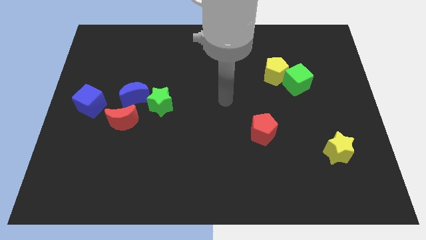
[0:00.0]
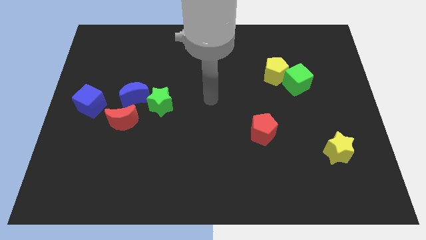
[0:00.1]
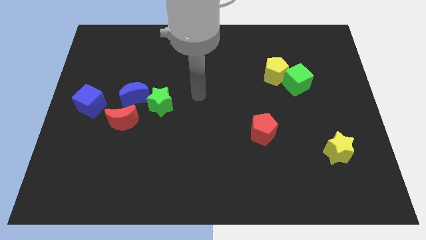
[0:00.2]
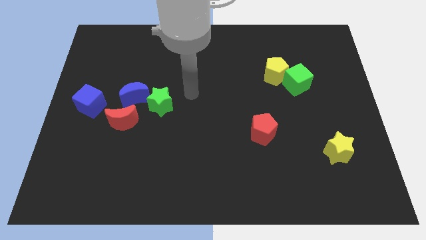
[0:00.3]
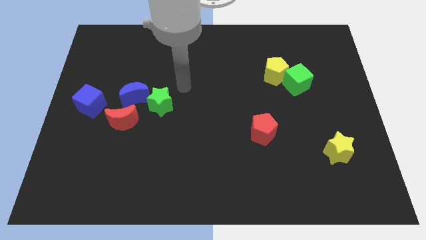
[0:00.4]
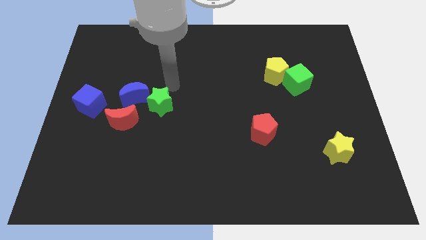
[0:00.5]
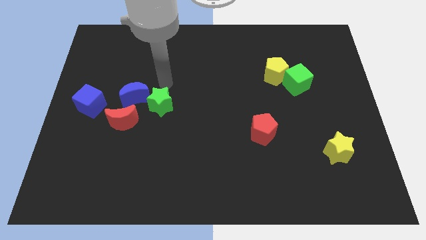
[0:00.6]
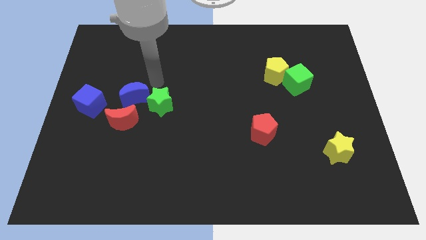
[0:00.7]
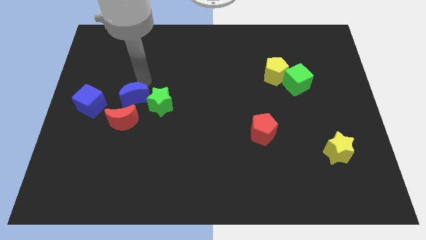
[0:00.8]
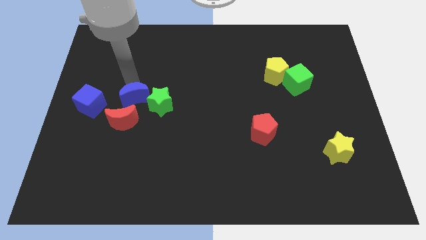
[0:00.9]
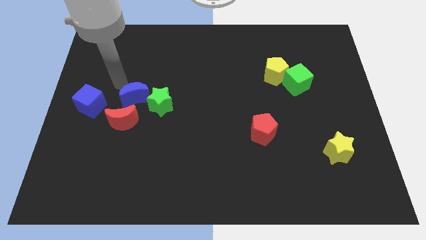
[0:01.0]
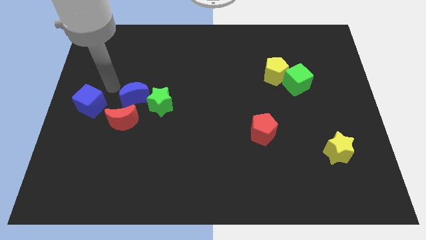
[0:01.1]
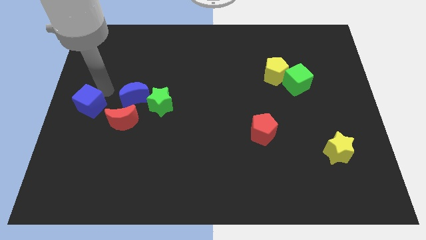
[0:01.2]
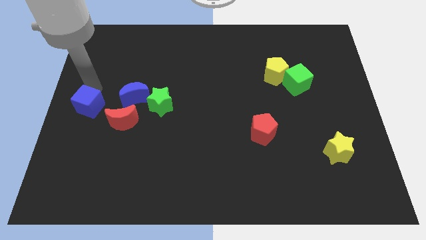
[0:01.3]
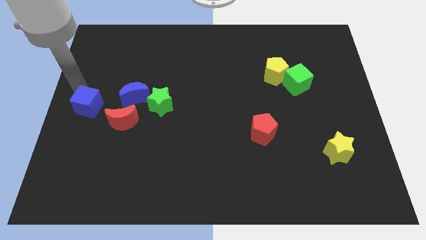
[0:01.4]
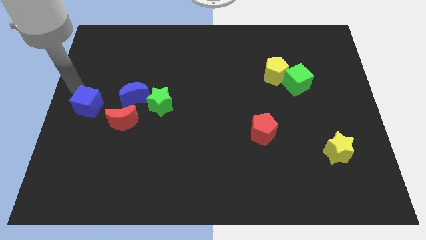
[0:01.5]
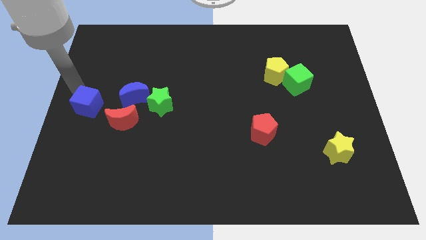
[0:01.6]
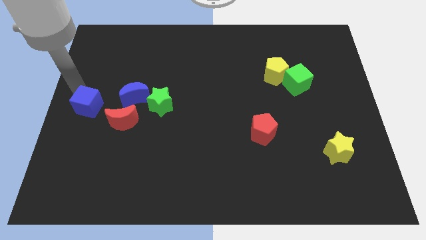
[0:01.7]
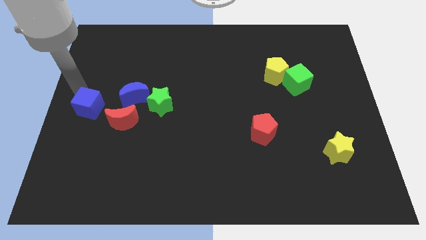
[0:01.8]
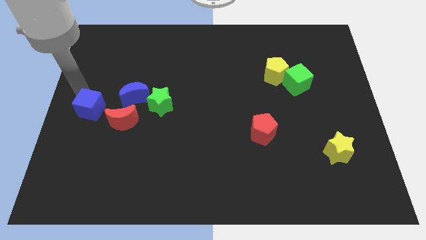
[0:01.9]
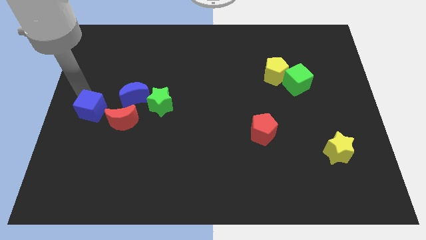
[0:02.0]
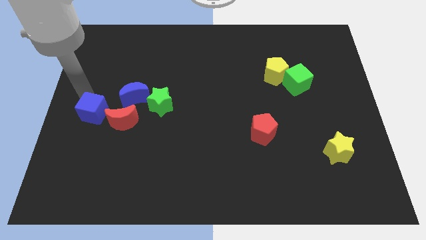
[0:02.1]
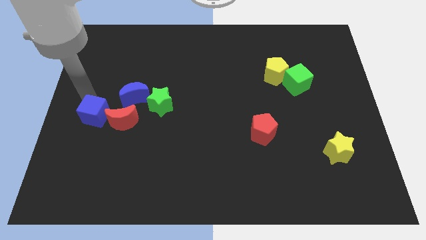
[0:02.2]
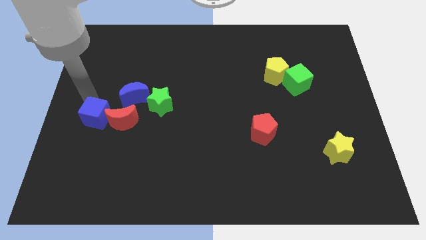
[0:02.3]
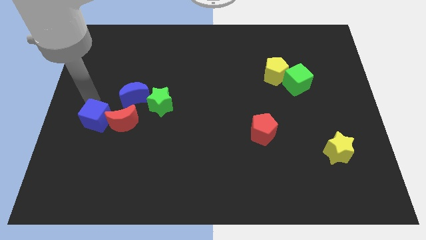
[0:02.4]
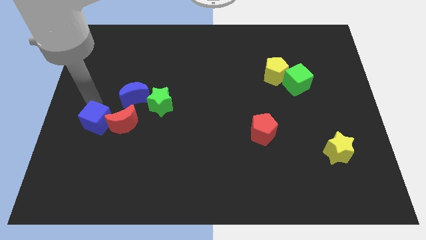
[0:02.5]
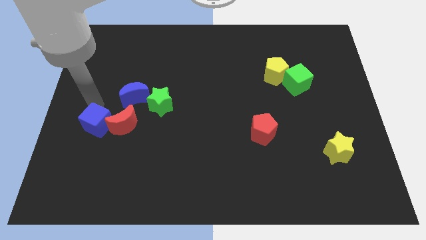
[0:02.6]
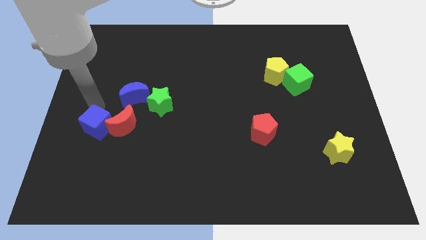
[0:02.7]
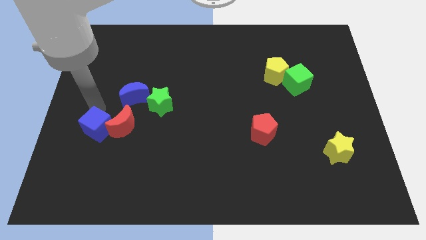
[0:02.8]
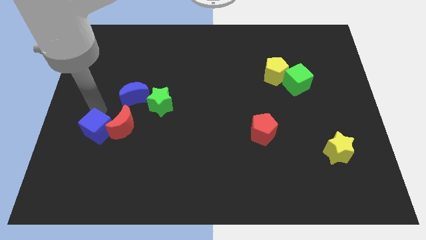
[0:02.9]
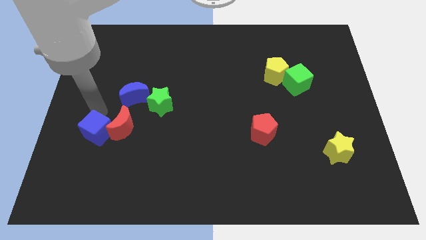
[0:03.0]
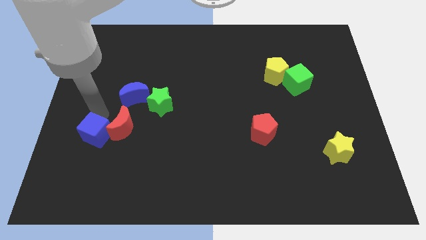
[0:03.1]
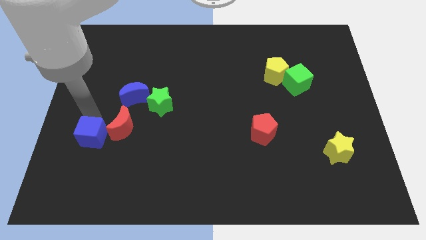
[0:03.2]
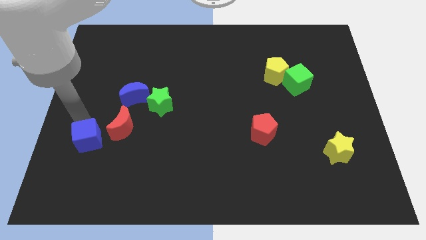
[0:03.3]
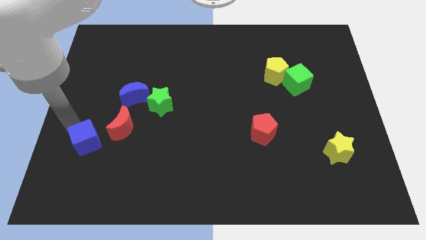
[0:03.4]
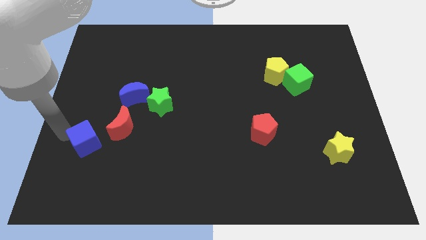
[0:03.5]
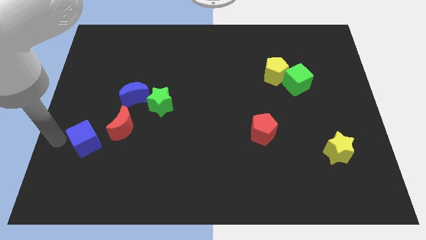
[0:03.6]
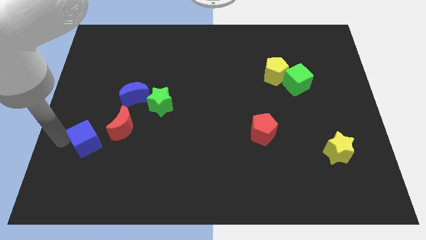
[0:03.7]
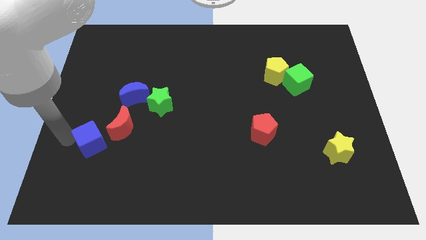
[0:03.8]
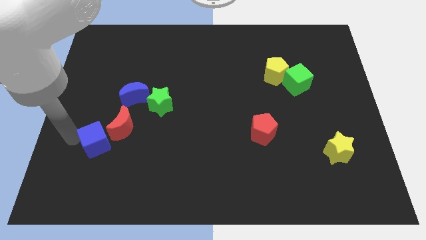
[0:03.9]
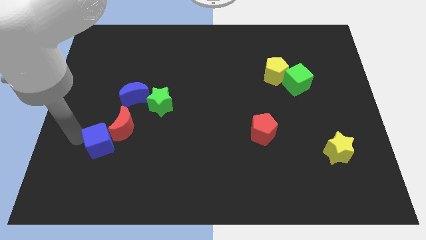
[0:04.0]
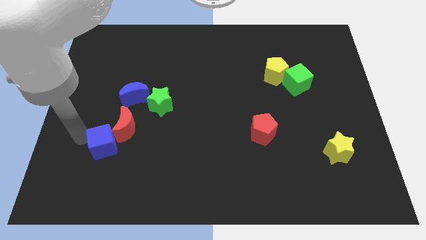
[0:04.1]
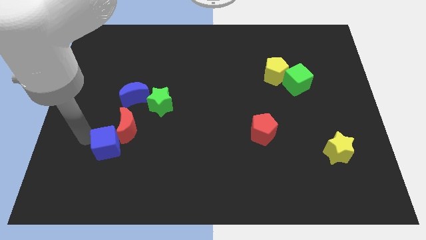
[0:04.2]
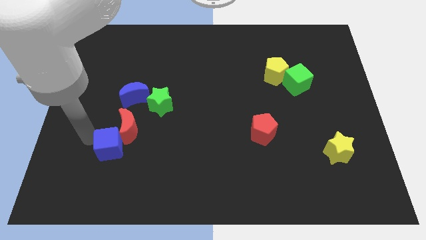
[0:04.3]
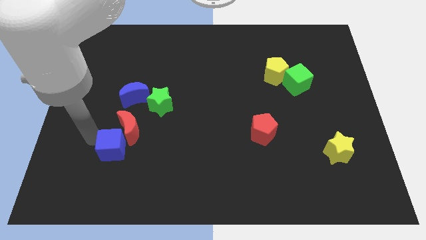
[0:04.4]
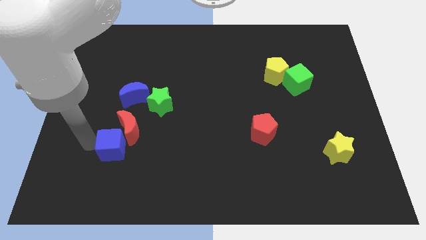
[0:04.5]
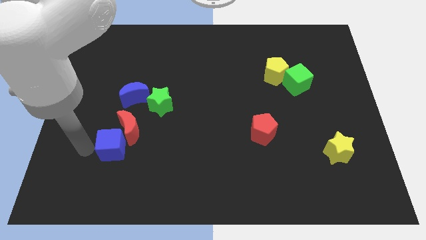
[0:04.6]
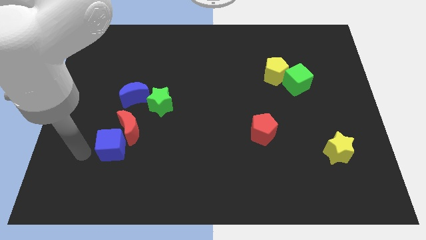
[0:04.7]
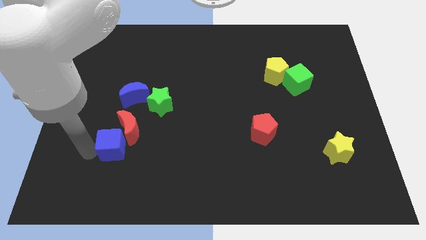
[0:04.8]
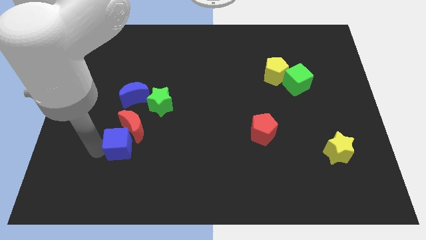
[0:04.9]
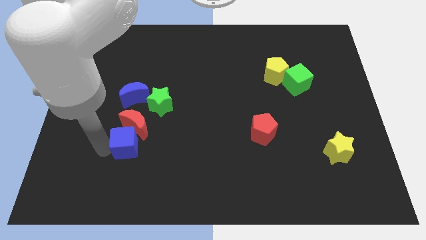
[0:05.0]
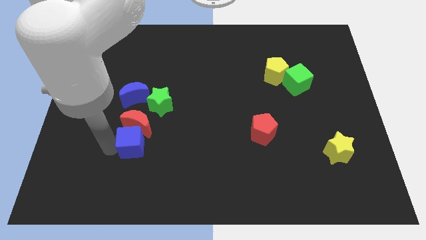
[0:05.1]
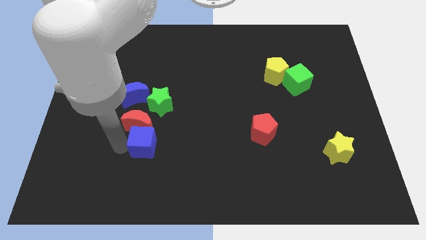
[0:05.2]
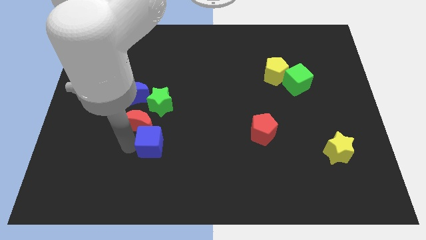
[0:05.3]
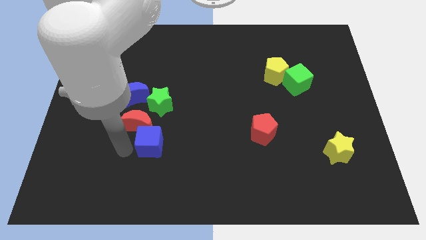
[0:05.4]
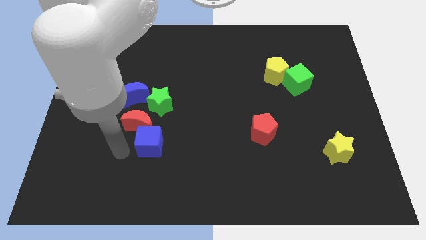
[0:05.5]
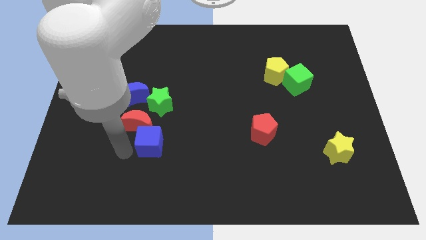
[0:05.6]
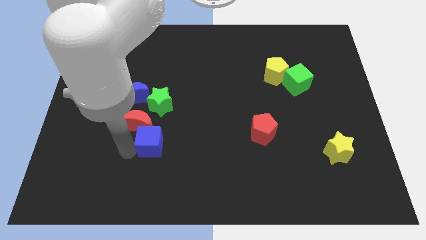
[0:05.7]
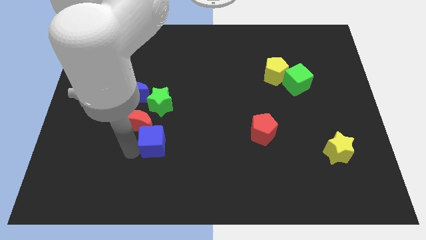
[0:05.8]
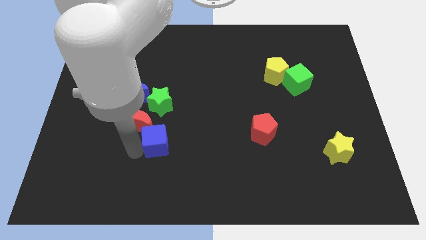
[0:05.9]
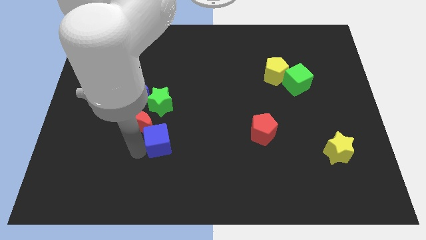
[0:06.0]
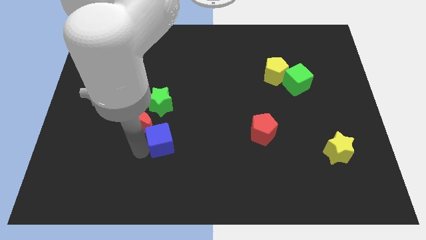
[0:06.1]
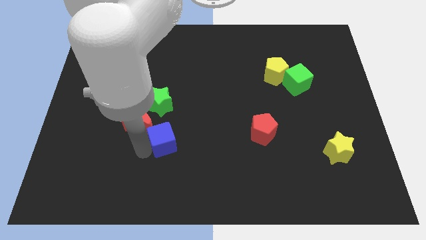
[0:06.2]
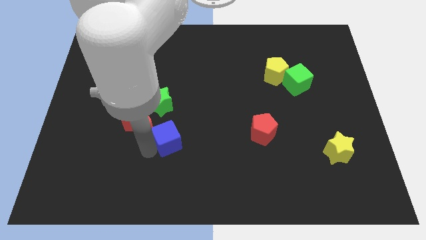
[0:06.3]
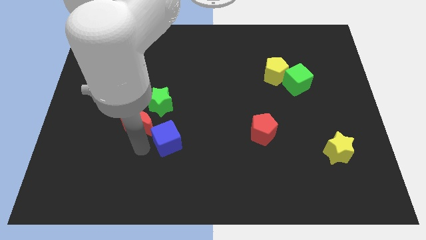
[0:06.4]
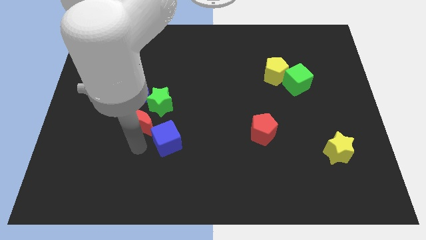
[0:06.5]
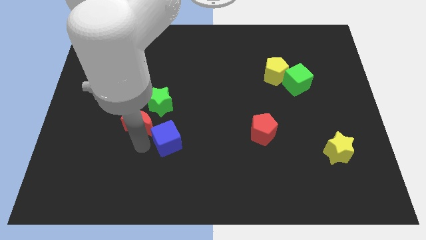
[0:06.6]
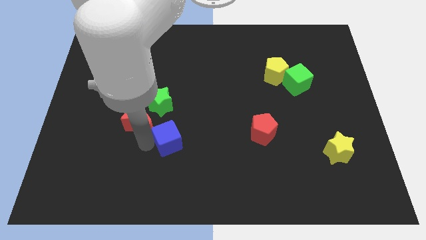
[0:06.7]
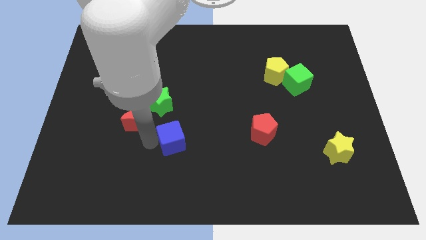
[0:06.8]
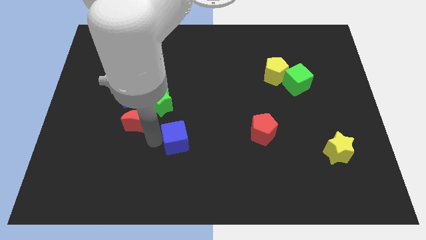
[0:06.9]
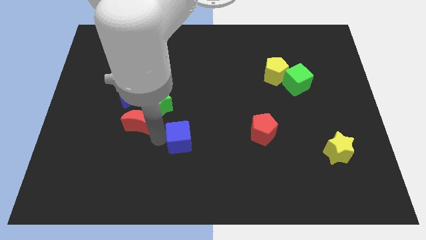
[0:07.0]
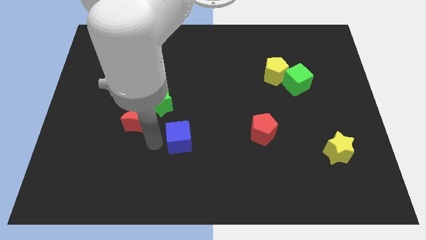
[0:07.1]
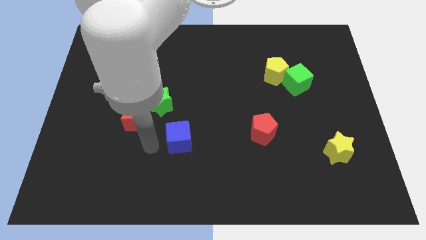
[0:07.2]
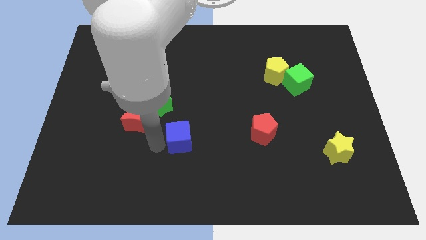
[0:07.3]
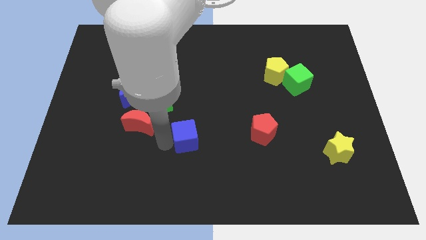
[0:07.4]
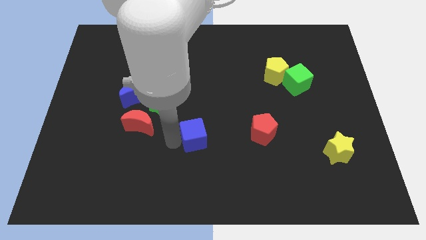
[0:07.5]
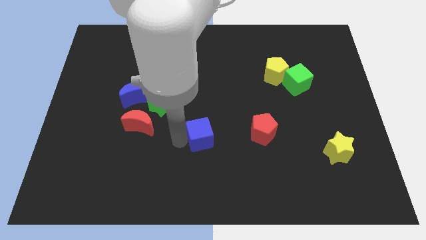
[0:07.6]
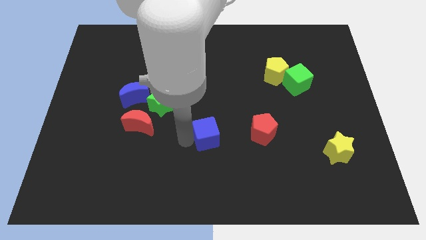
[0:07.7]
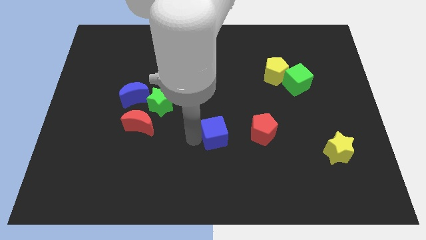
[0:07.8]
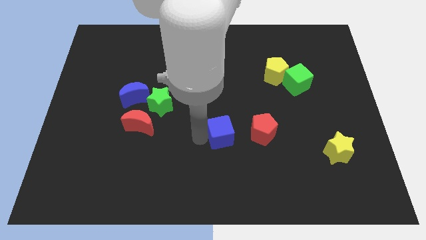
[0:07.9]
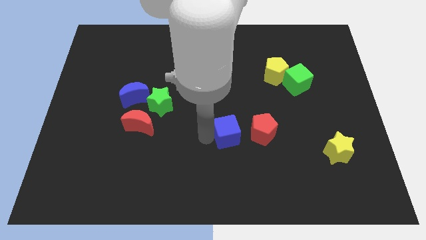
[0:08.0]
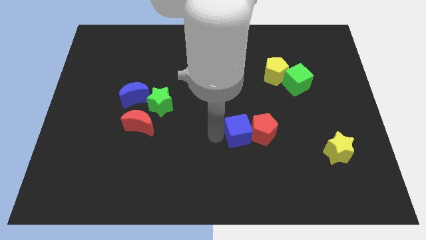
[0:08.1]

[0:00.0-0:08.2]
put the blue cube towards the red pentagon

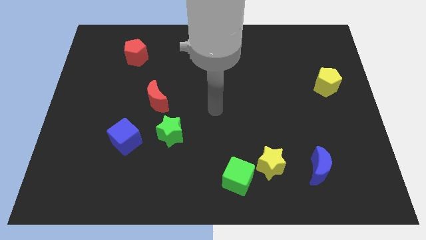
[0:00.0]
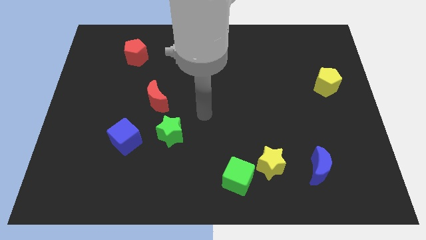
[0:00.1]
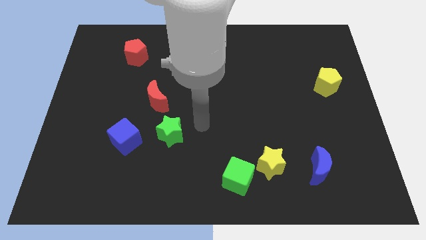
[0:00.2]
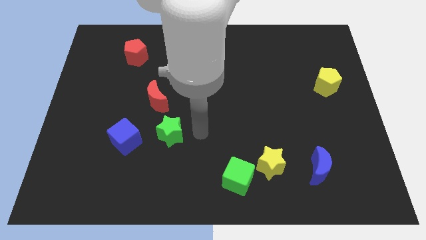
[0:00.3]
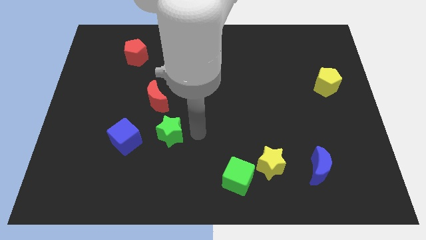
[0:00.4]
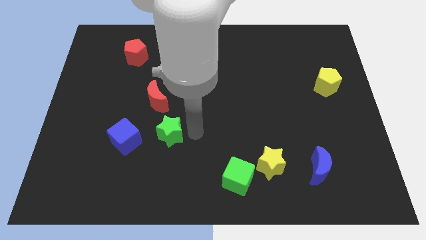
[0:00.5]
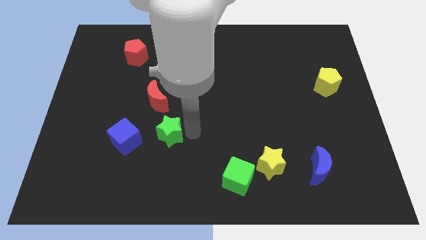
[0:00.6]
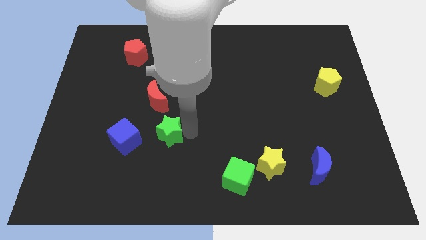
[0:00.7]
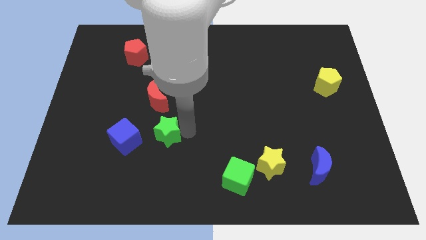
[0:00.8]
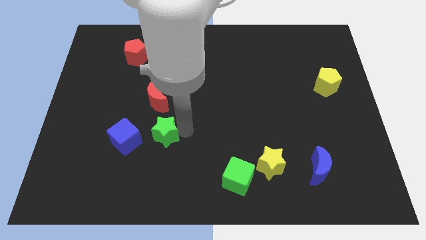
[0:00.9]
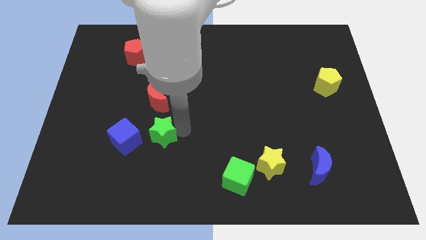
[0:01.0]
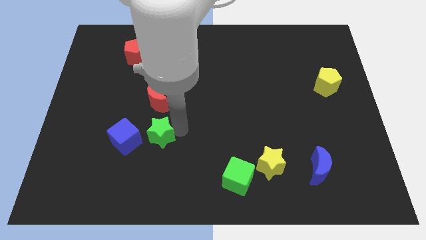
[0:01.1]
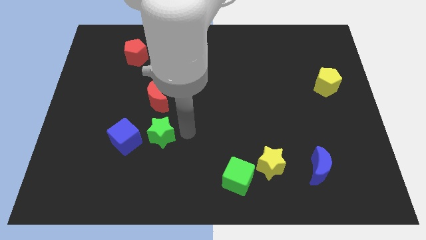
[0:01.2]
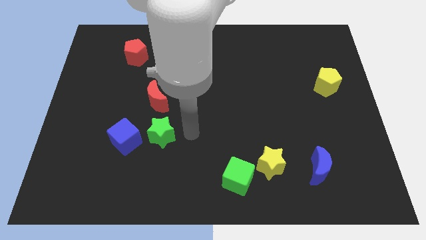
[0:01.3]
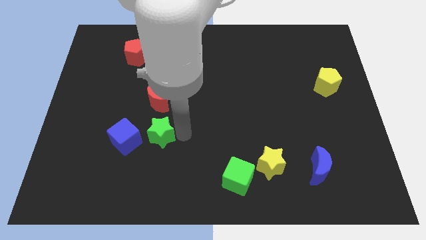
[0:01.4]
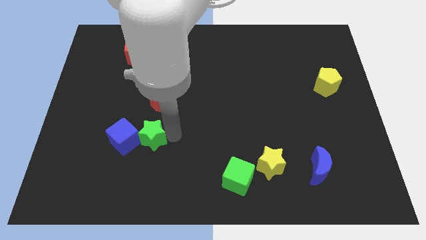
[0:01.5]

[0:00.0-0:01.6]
slide the green star to the blue cube
